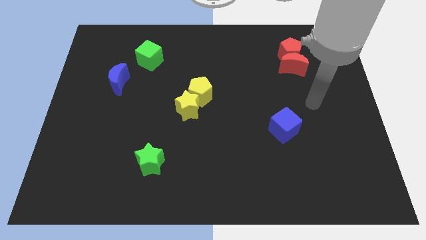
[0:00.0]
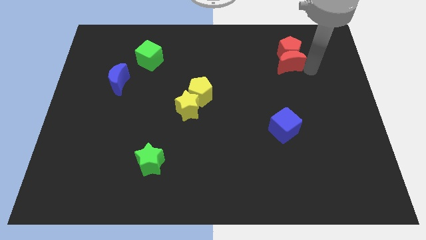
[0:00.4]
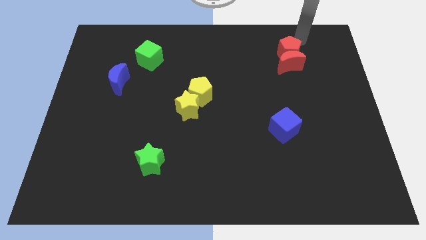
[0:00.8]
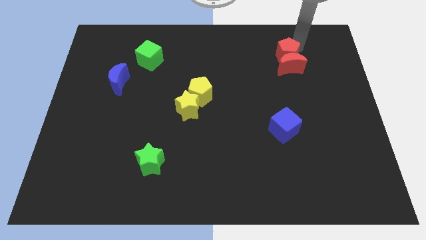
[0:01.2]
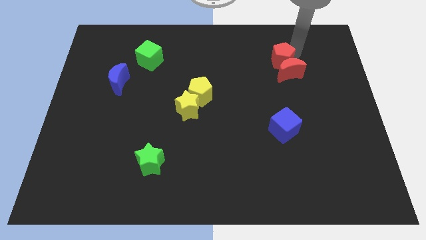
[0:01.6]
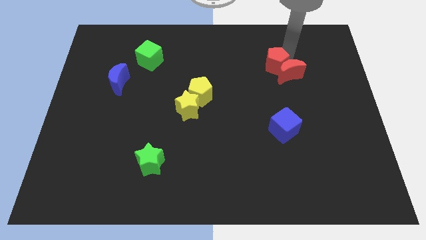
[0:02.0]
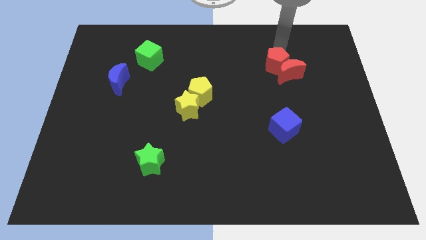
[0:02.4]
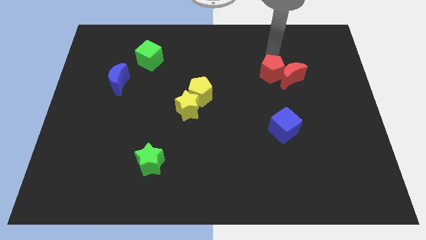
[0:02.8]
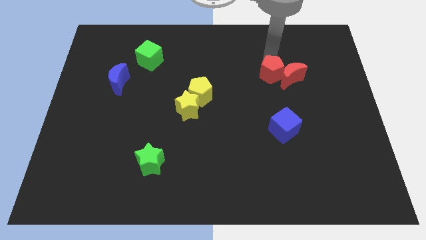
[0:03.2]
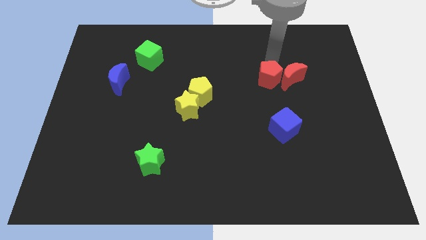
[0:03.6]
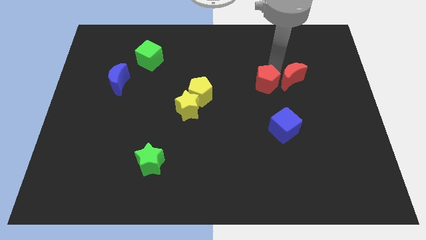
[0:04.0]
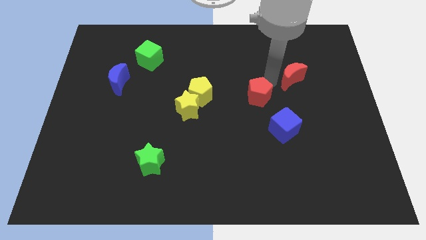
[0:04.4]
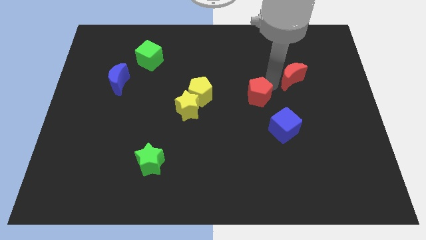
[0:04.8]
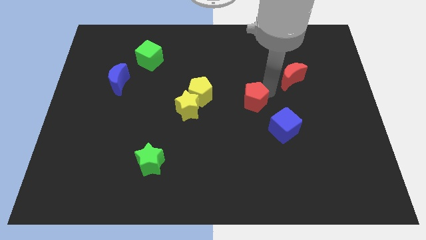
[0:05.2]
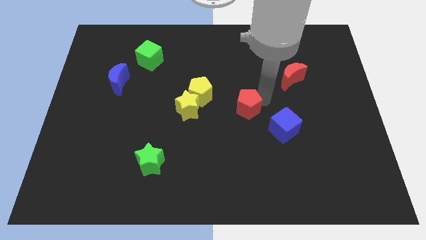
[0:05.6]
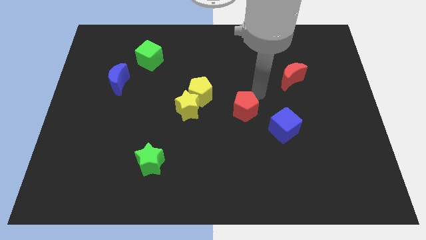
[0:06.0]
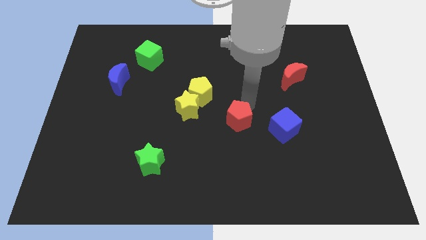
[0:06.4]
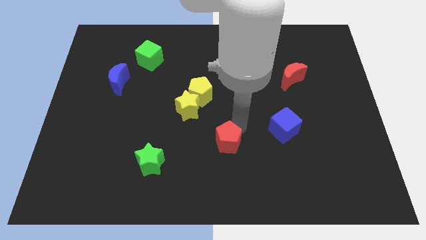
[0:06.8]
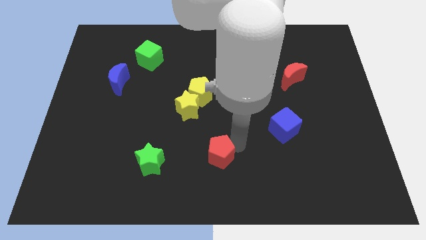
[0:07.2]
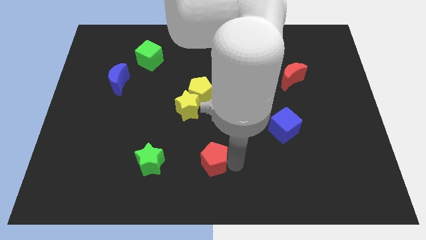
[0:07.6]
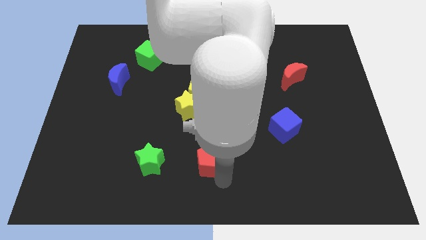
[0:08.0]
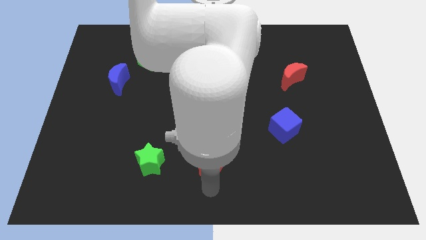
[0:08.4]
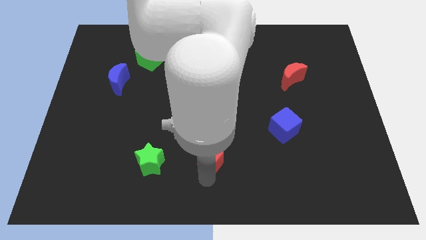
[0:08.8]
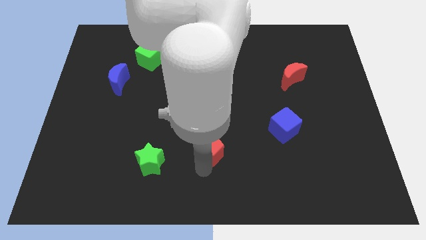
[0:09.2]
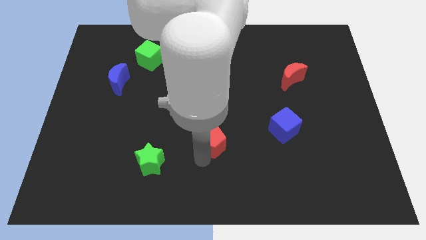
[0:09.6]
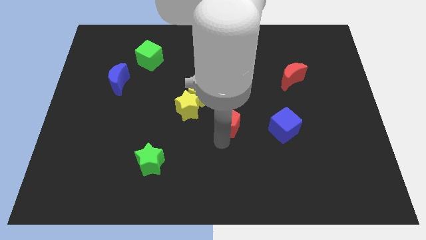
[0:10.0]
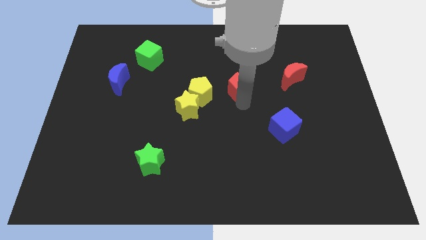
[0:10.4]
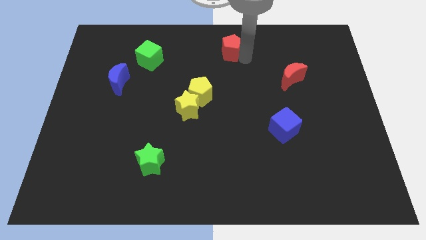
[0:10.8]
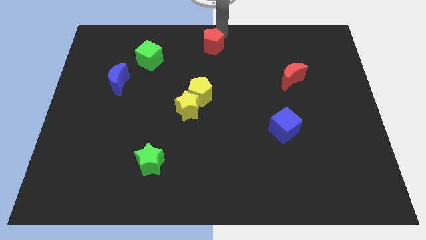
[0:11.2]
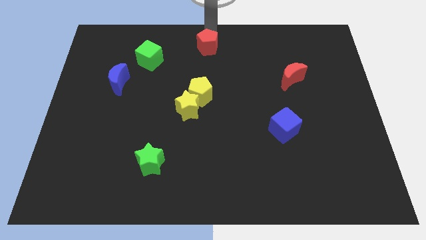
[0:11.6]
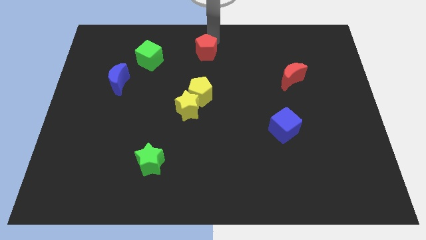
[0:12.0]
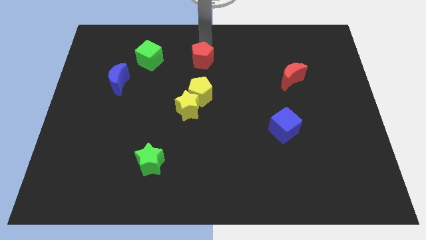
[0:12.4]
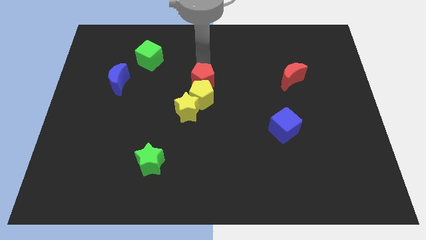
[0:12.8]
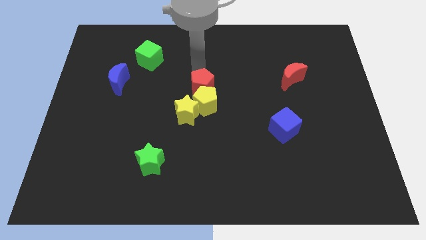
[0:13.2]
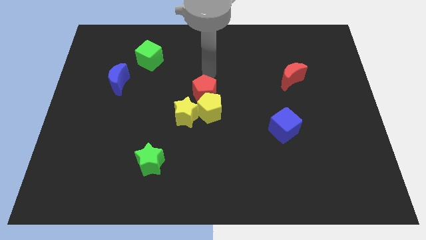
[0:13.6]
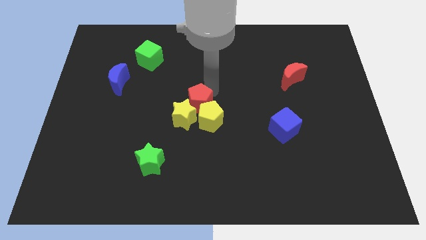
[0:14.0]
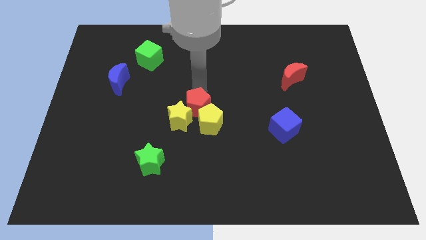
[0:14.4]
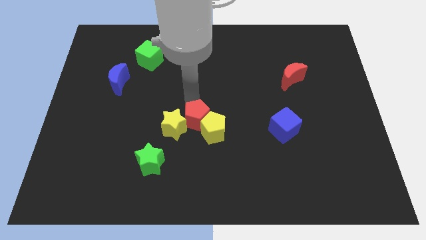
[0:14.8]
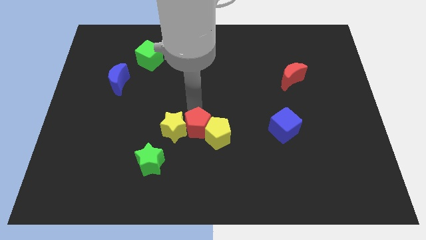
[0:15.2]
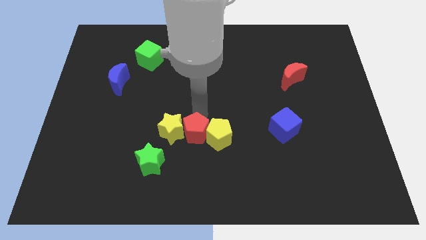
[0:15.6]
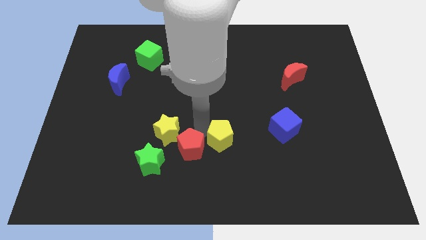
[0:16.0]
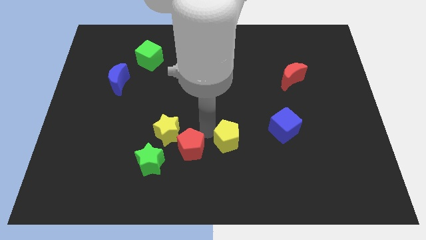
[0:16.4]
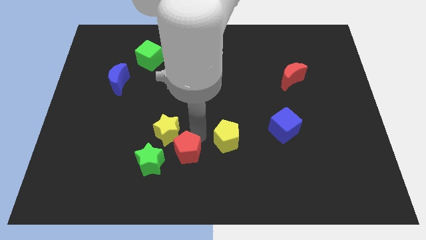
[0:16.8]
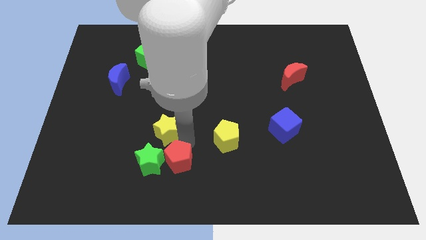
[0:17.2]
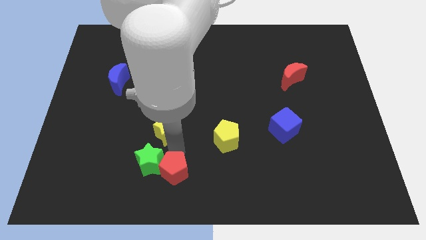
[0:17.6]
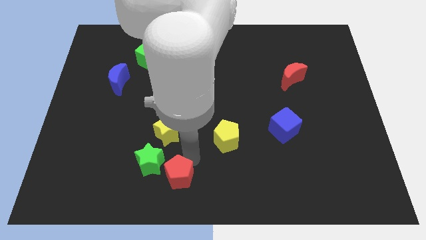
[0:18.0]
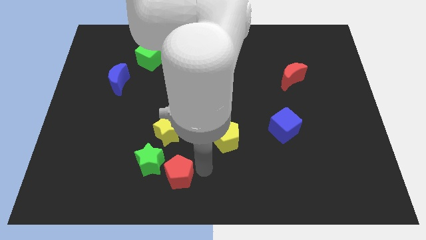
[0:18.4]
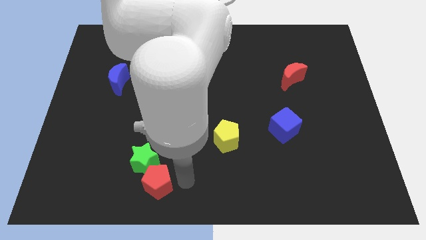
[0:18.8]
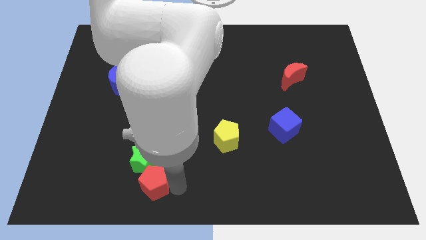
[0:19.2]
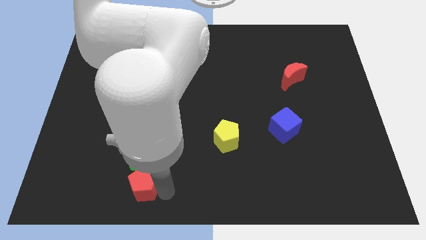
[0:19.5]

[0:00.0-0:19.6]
slide the red pentagon to the bottom left side of the green star

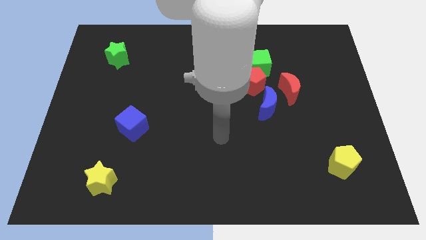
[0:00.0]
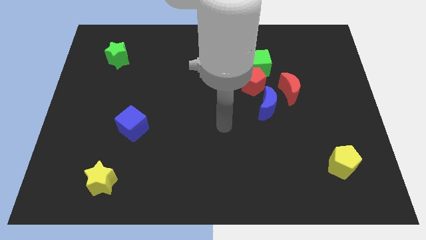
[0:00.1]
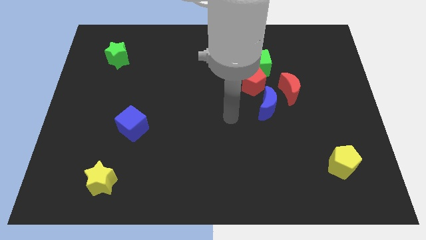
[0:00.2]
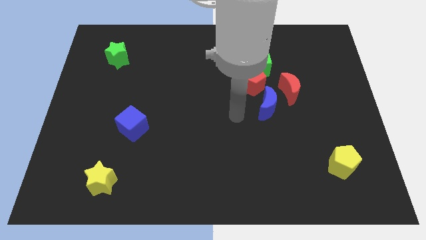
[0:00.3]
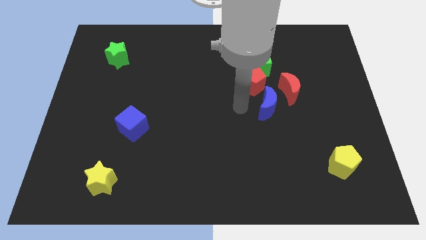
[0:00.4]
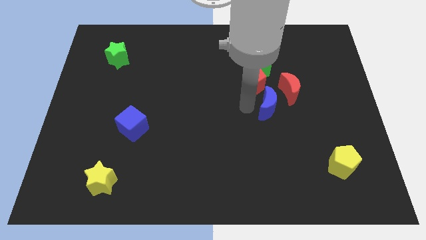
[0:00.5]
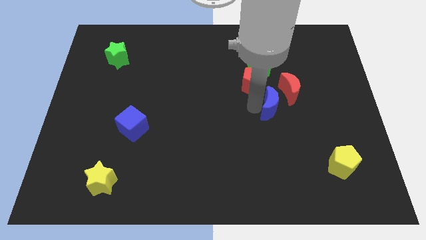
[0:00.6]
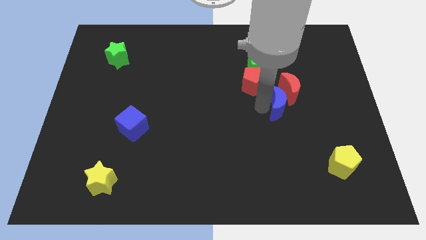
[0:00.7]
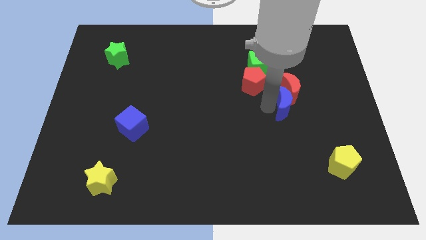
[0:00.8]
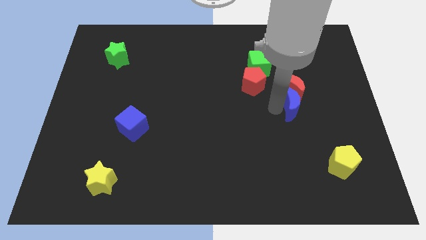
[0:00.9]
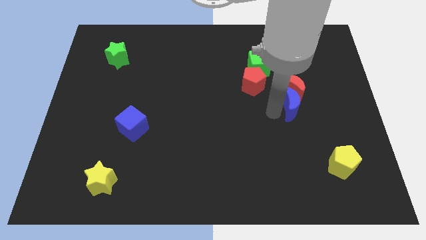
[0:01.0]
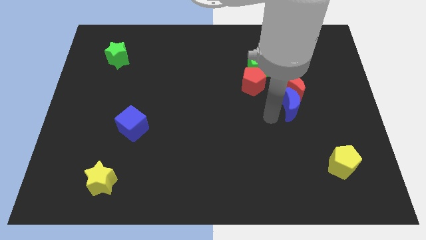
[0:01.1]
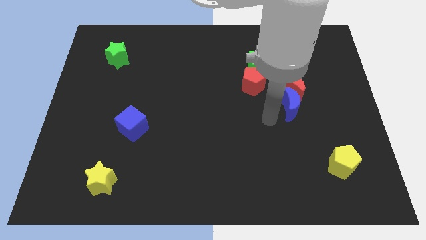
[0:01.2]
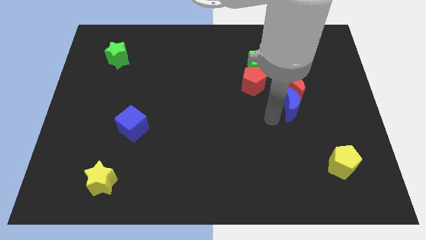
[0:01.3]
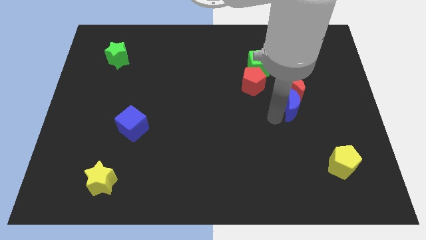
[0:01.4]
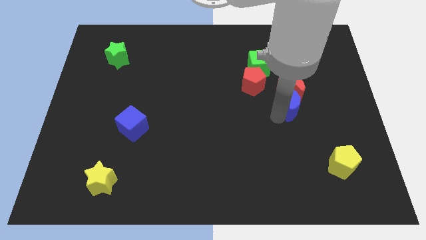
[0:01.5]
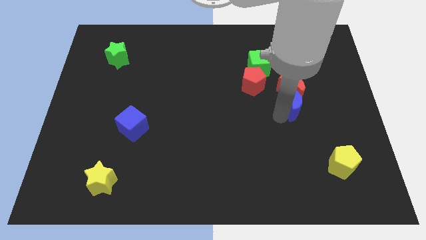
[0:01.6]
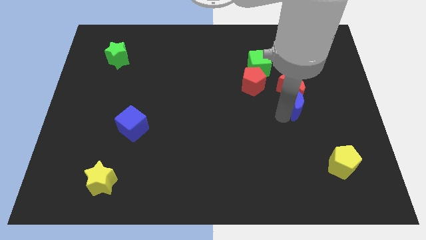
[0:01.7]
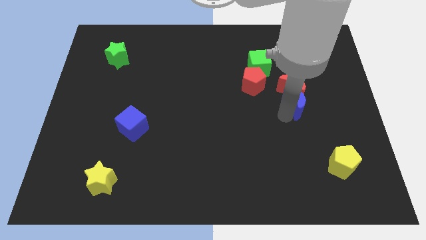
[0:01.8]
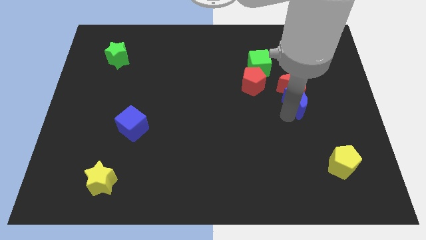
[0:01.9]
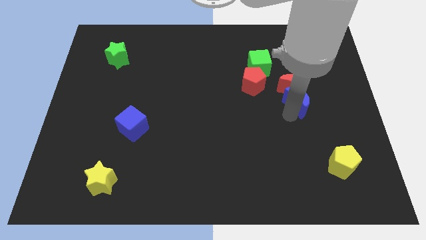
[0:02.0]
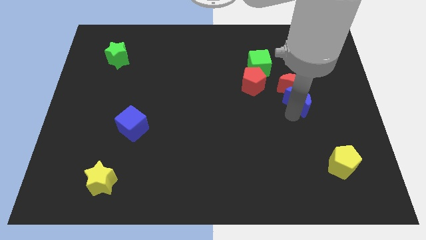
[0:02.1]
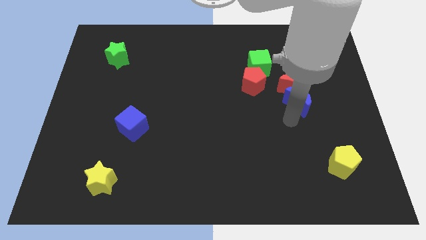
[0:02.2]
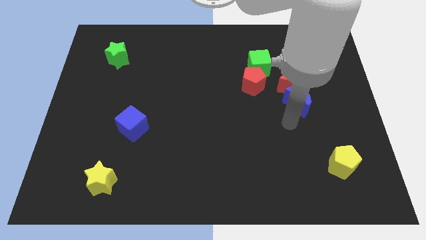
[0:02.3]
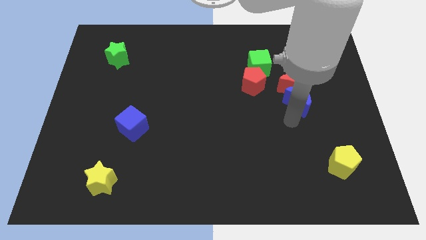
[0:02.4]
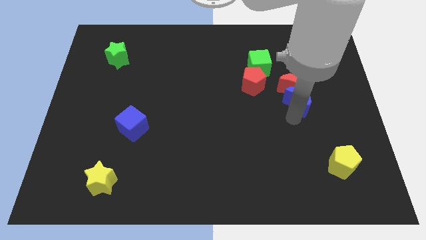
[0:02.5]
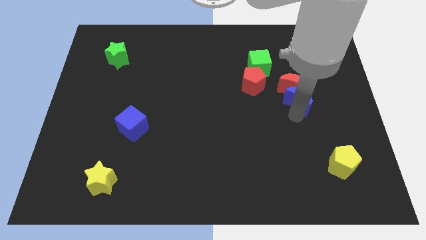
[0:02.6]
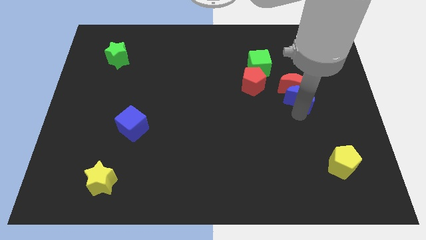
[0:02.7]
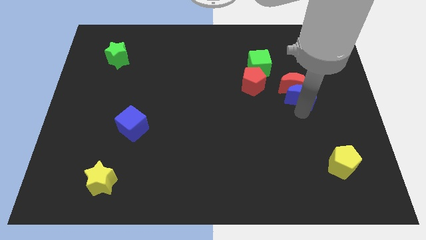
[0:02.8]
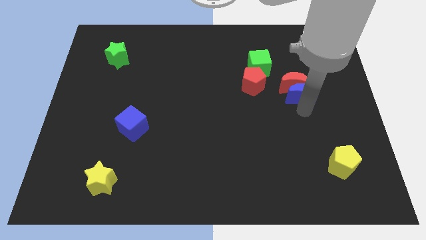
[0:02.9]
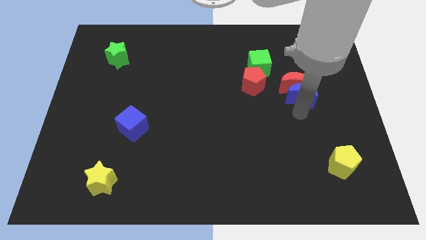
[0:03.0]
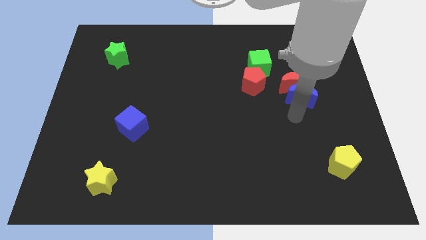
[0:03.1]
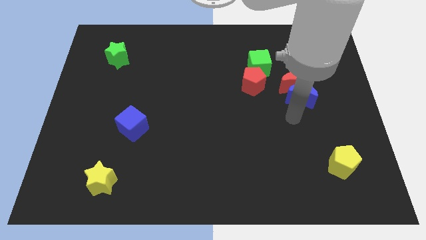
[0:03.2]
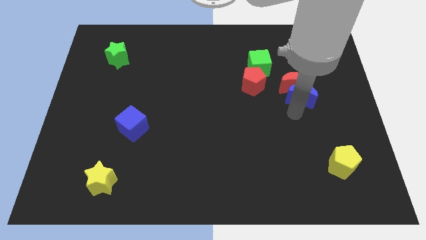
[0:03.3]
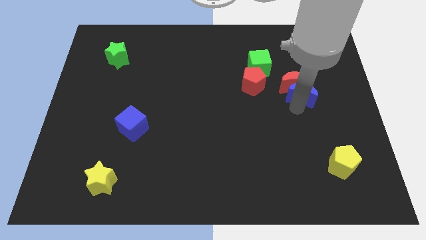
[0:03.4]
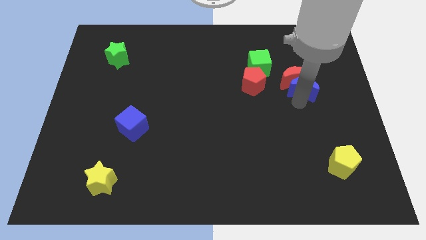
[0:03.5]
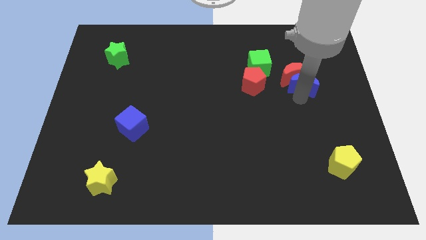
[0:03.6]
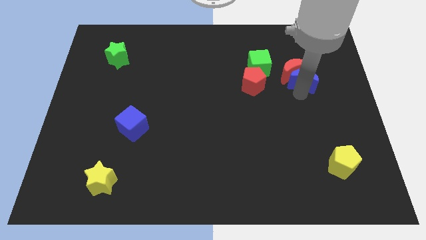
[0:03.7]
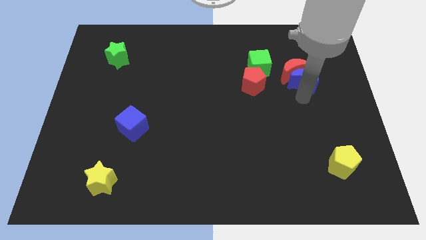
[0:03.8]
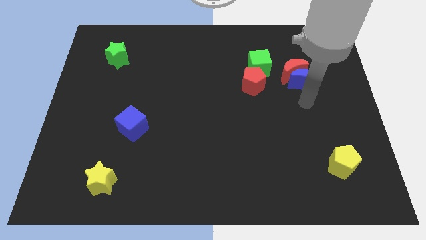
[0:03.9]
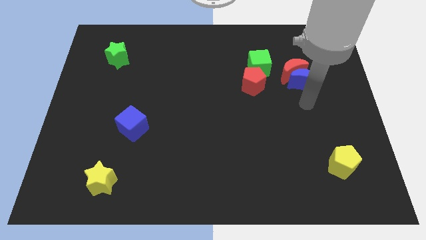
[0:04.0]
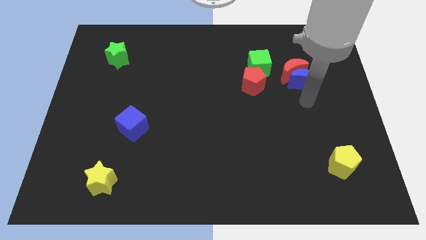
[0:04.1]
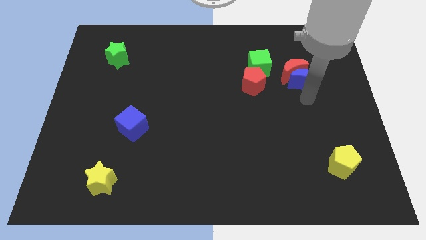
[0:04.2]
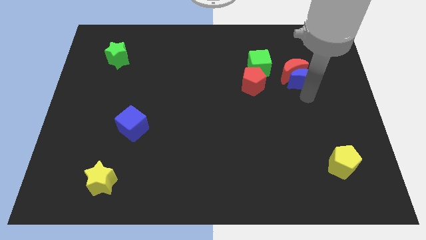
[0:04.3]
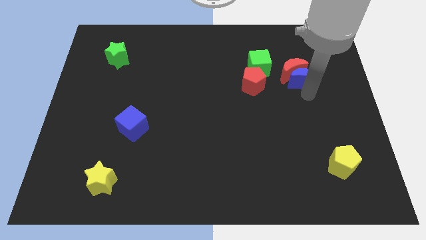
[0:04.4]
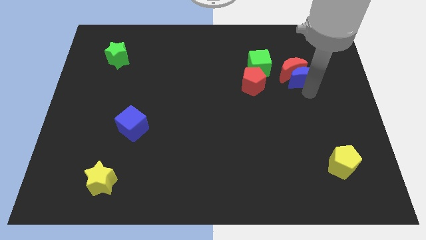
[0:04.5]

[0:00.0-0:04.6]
slide the blue moon just right of the green cube
